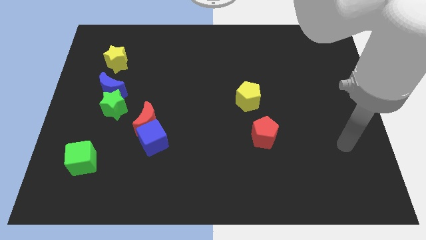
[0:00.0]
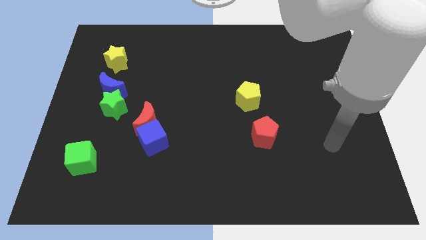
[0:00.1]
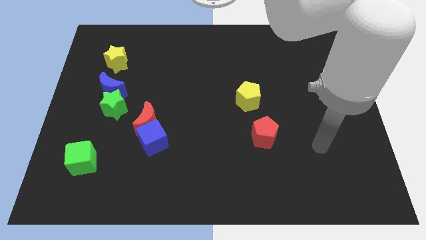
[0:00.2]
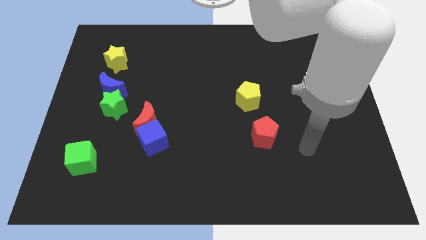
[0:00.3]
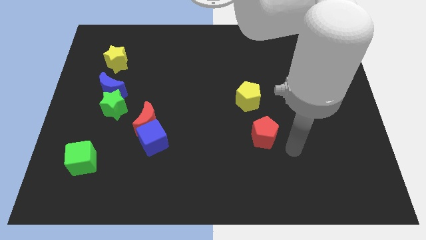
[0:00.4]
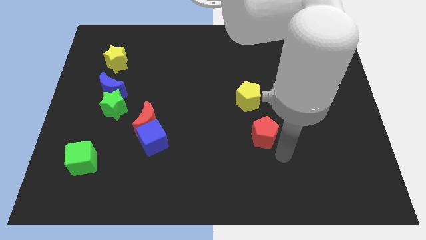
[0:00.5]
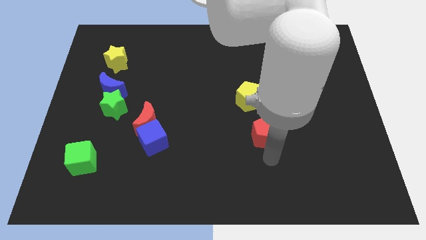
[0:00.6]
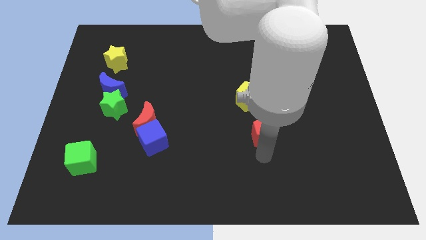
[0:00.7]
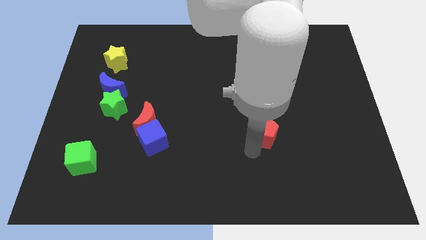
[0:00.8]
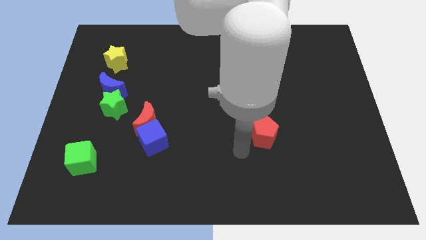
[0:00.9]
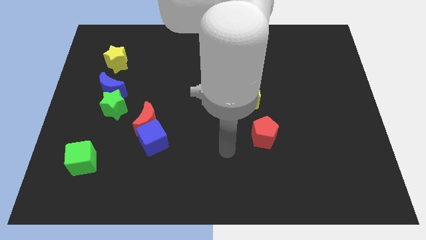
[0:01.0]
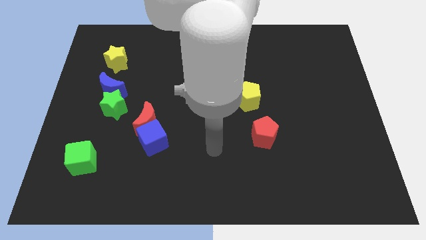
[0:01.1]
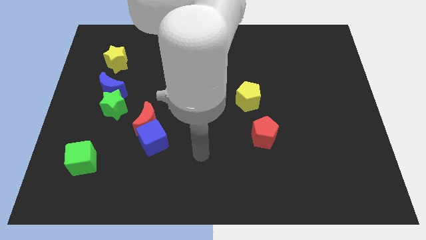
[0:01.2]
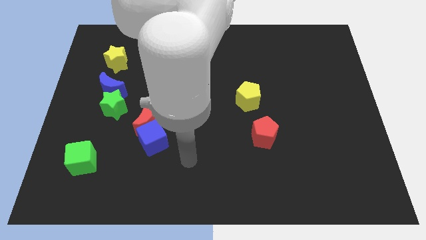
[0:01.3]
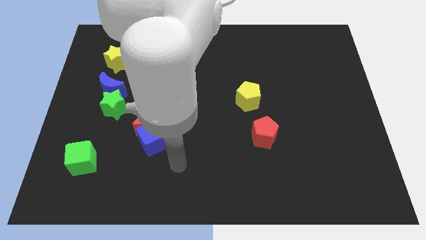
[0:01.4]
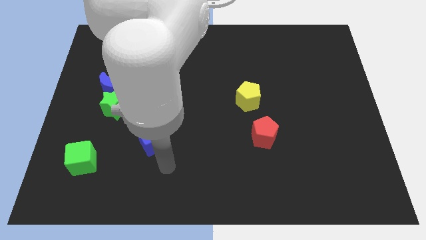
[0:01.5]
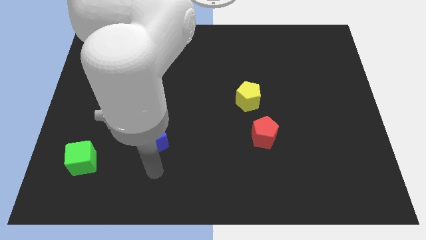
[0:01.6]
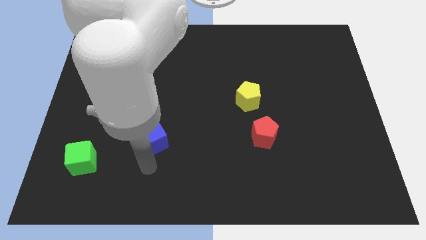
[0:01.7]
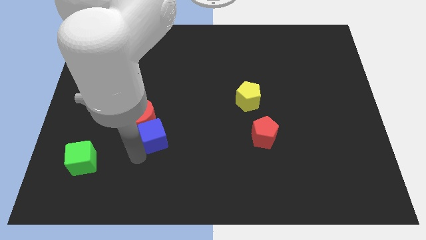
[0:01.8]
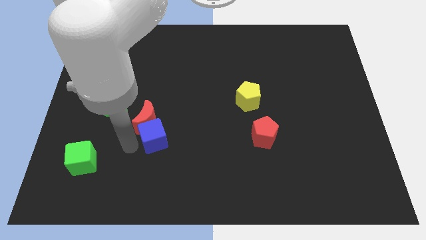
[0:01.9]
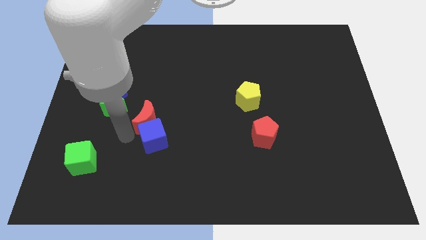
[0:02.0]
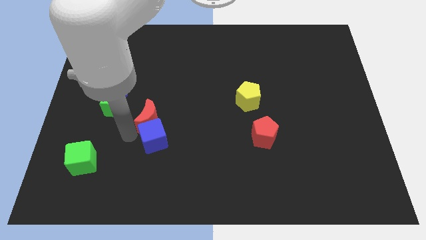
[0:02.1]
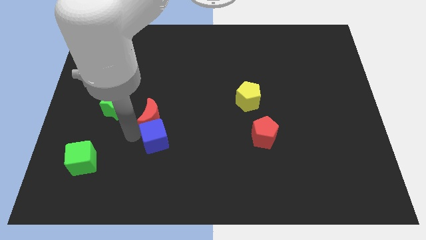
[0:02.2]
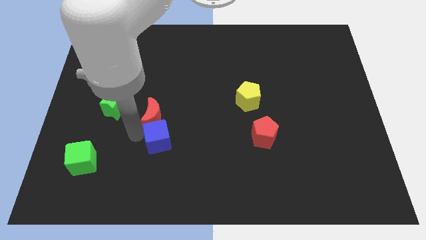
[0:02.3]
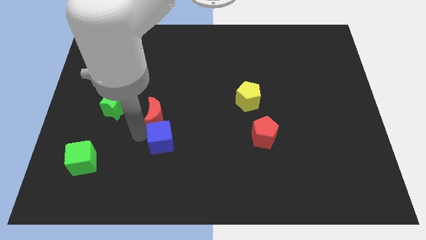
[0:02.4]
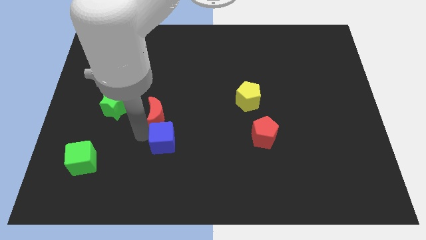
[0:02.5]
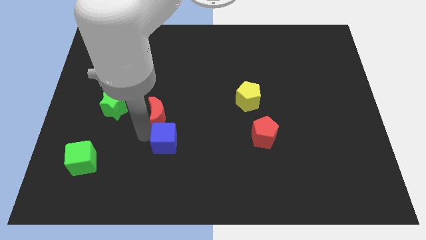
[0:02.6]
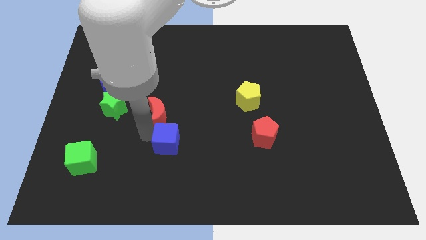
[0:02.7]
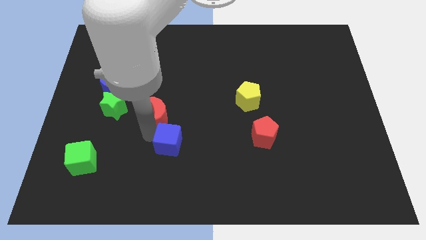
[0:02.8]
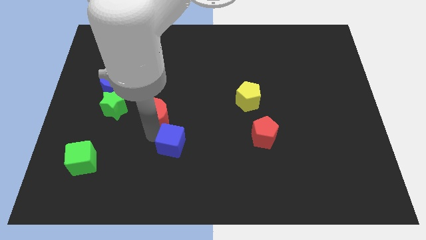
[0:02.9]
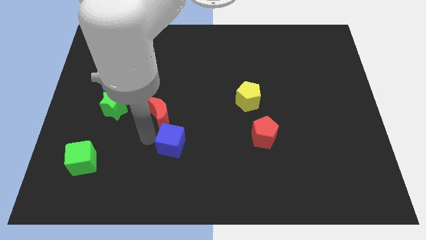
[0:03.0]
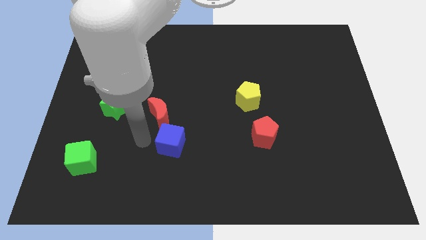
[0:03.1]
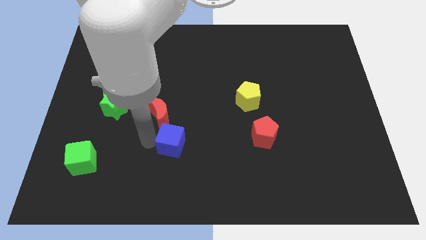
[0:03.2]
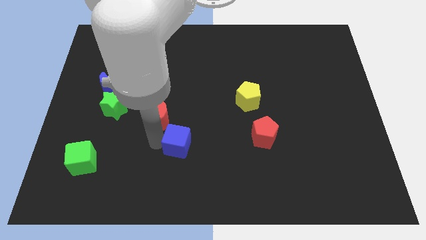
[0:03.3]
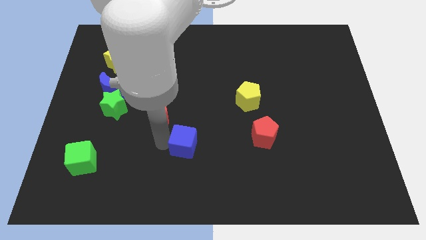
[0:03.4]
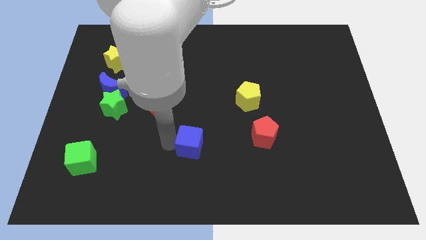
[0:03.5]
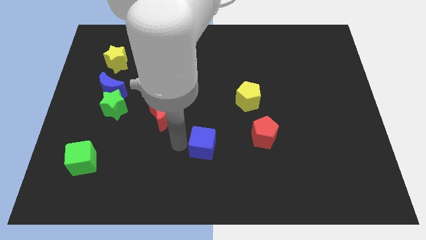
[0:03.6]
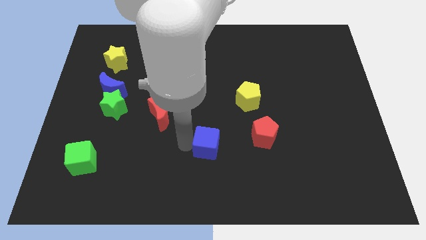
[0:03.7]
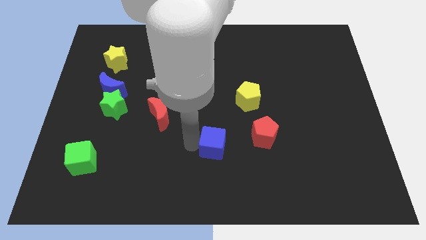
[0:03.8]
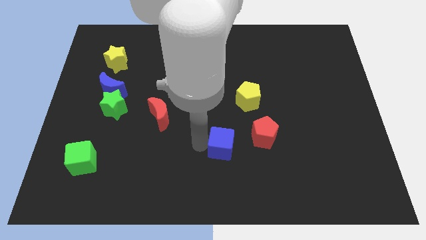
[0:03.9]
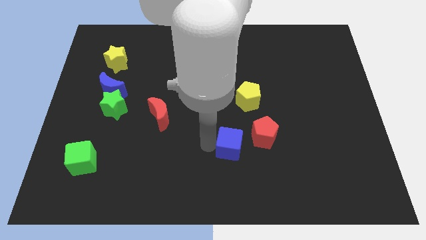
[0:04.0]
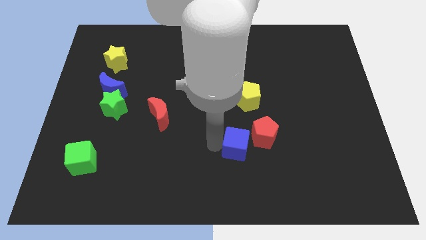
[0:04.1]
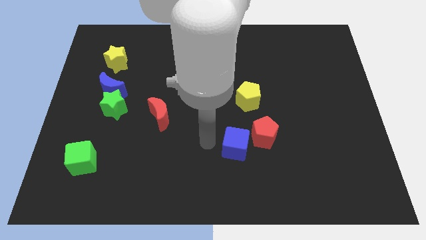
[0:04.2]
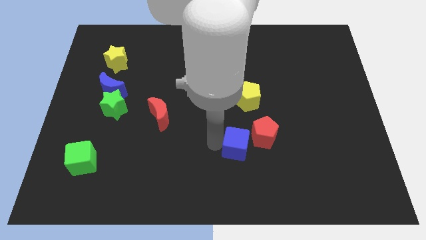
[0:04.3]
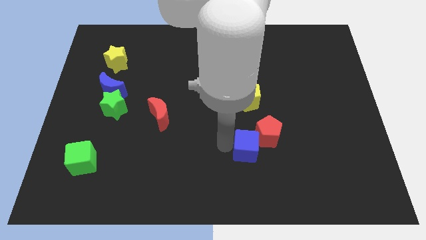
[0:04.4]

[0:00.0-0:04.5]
push the blue cube right

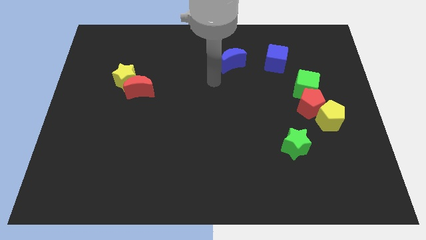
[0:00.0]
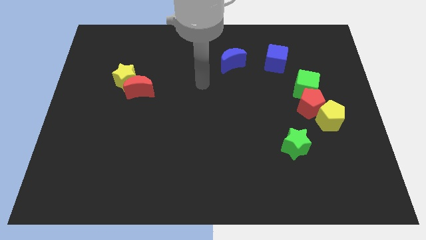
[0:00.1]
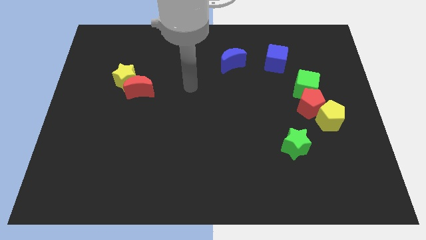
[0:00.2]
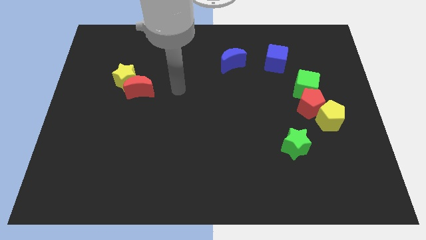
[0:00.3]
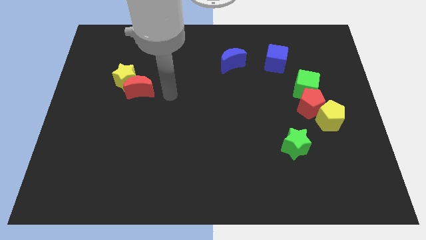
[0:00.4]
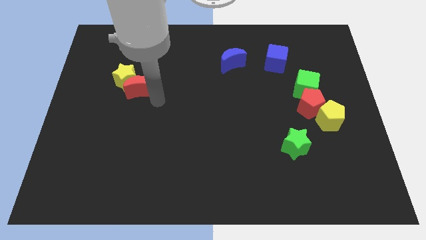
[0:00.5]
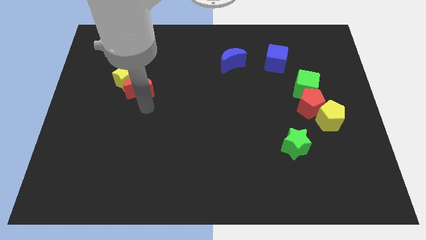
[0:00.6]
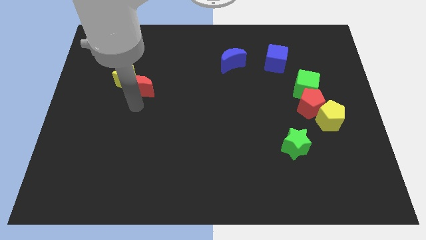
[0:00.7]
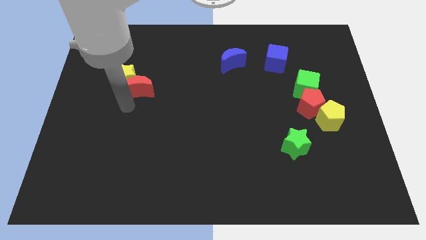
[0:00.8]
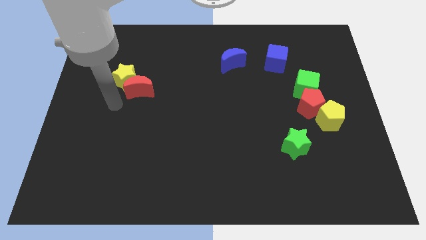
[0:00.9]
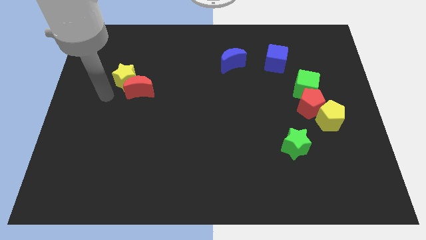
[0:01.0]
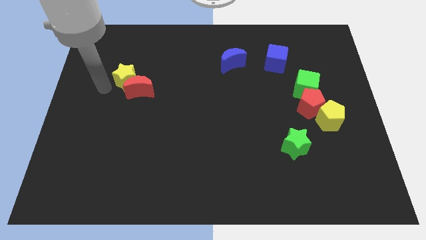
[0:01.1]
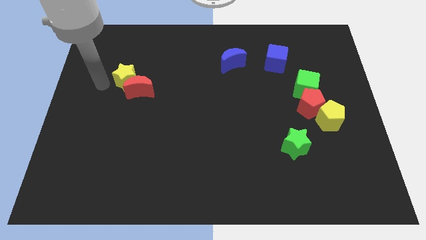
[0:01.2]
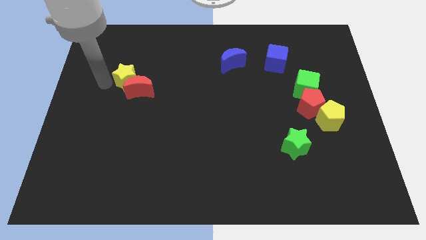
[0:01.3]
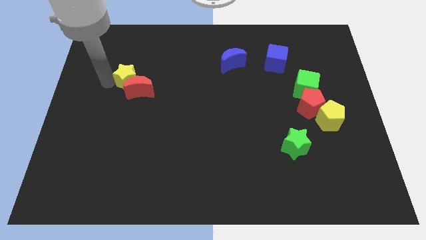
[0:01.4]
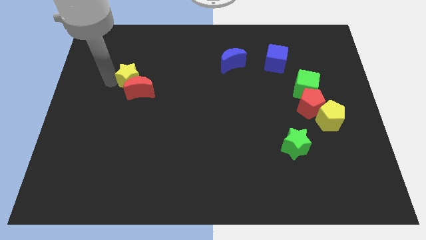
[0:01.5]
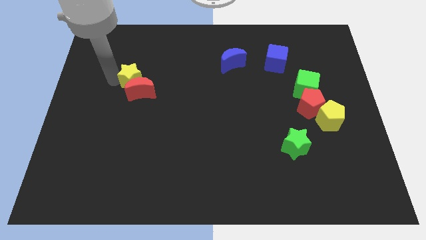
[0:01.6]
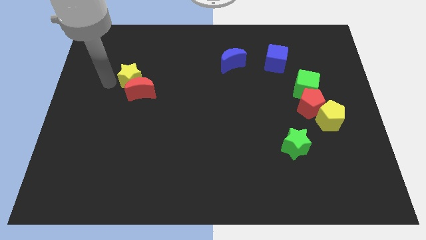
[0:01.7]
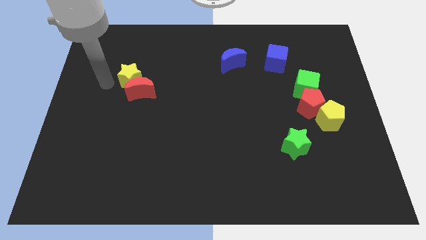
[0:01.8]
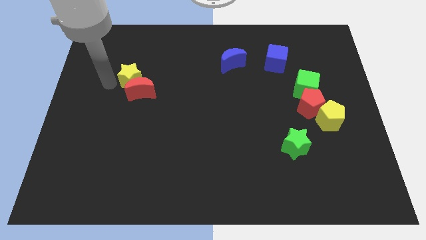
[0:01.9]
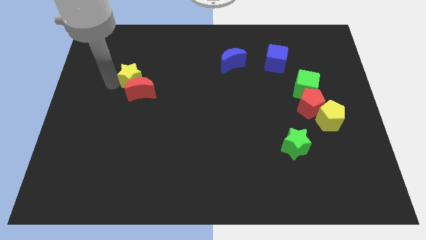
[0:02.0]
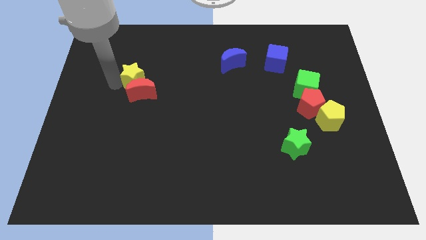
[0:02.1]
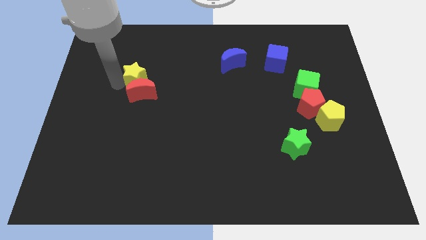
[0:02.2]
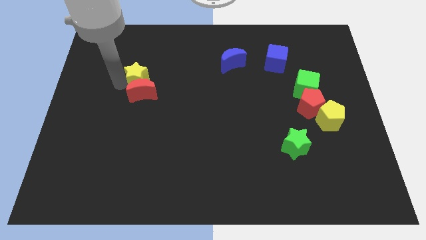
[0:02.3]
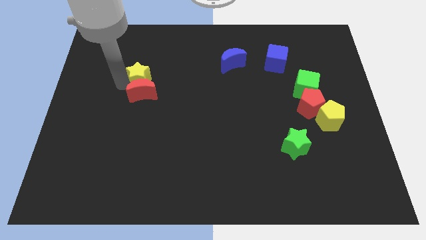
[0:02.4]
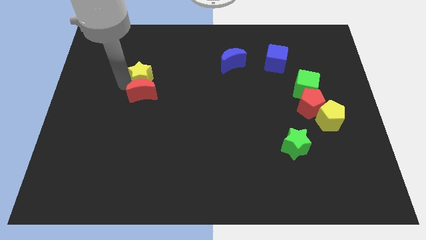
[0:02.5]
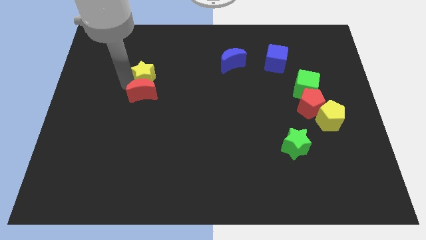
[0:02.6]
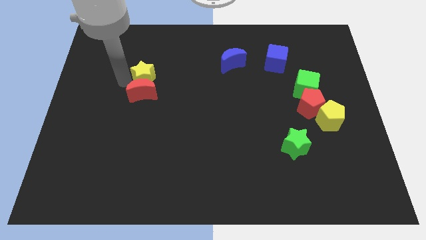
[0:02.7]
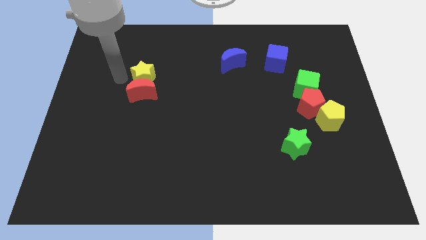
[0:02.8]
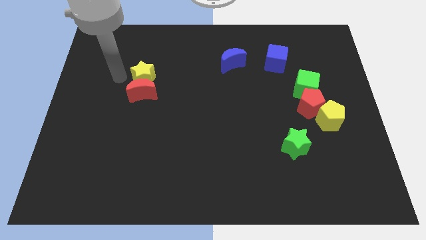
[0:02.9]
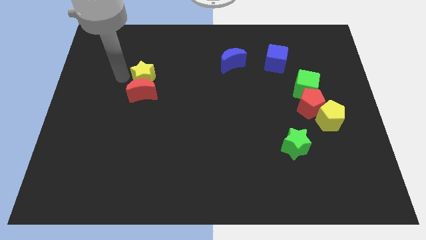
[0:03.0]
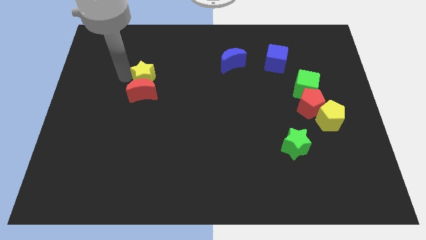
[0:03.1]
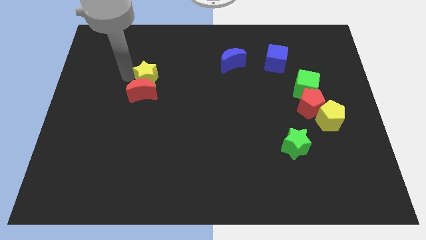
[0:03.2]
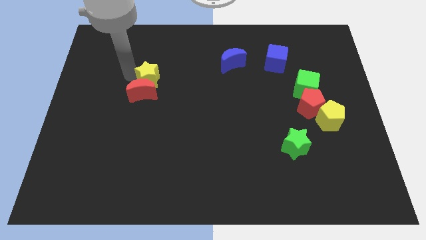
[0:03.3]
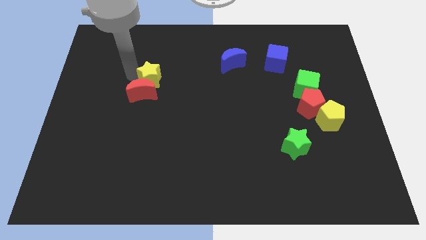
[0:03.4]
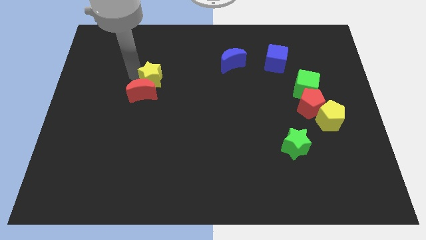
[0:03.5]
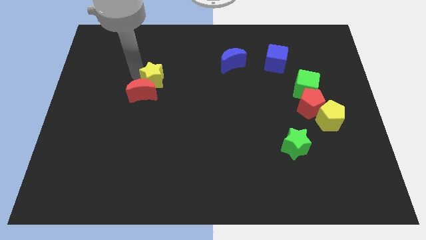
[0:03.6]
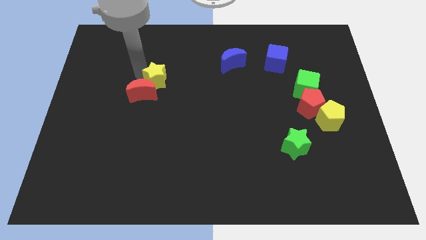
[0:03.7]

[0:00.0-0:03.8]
slightly move the yellow star to the right
